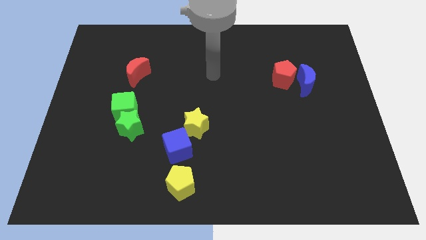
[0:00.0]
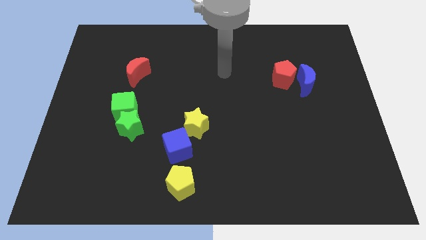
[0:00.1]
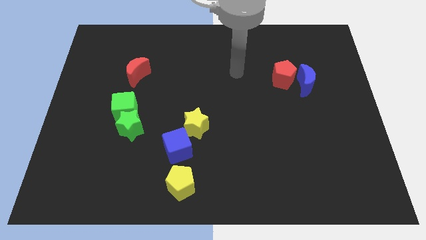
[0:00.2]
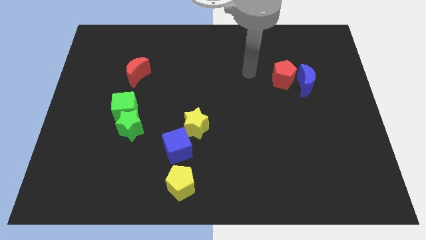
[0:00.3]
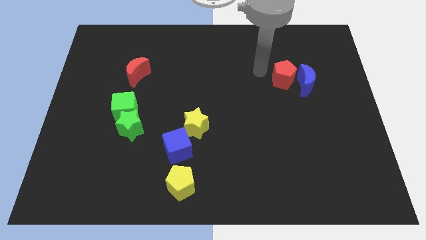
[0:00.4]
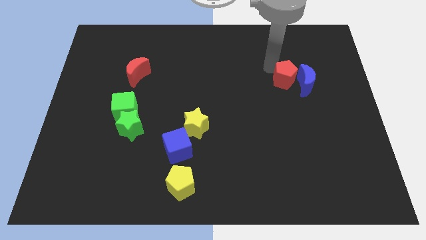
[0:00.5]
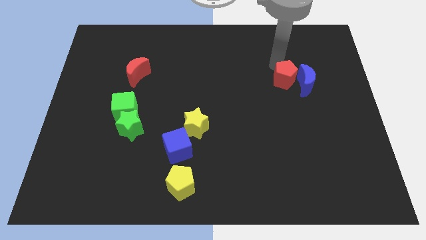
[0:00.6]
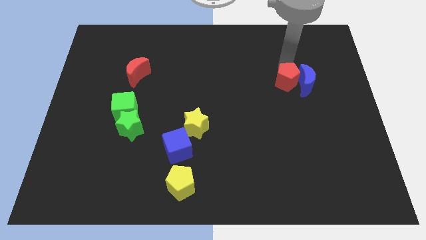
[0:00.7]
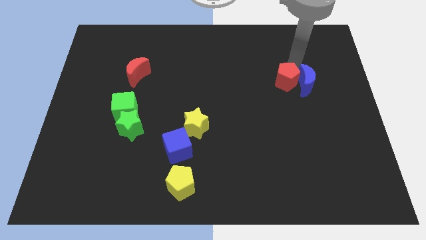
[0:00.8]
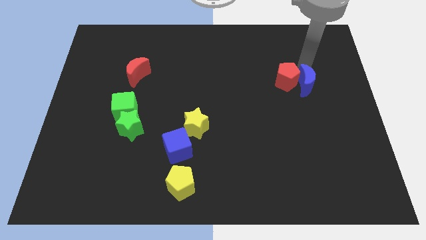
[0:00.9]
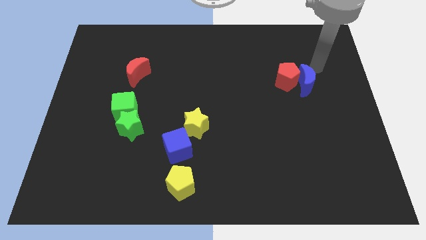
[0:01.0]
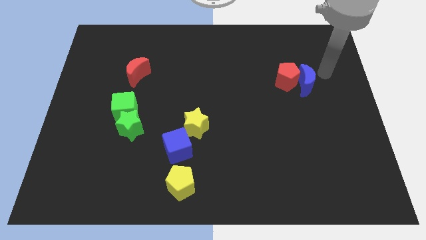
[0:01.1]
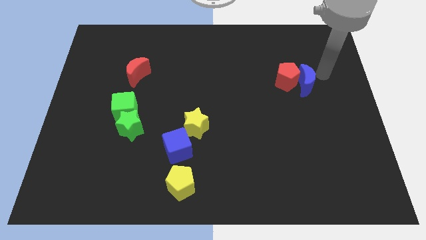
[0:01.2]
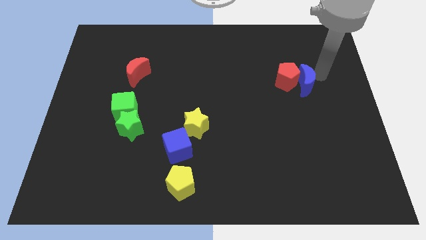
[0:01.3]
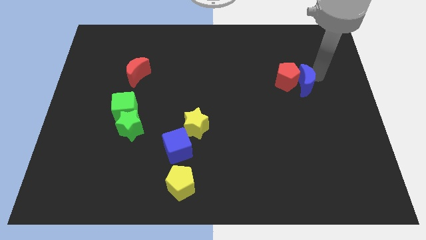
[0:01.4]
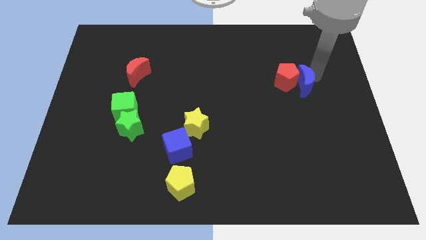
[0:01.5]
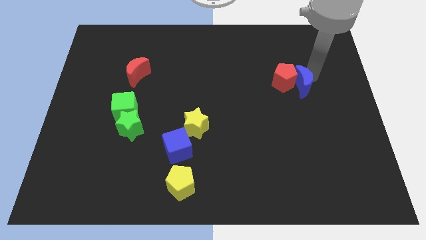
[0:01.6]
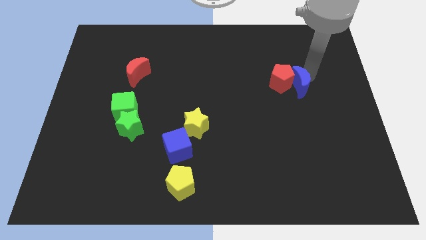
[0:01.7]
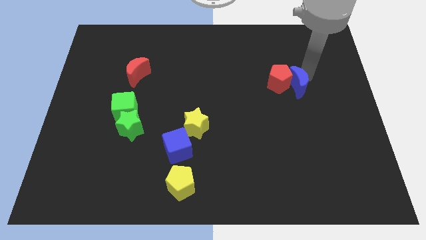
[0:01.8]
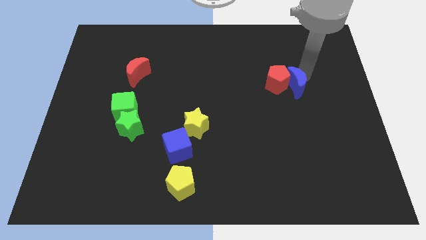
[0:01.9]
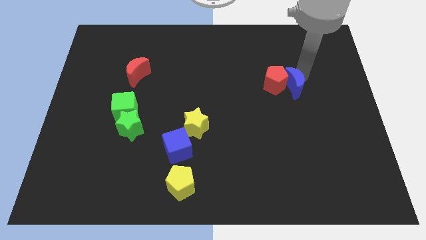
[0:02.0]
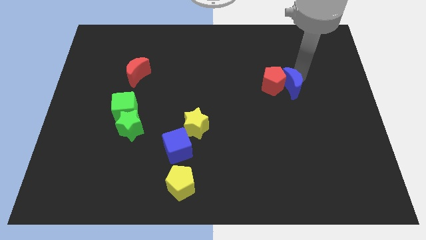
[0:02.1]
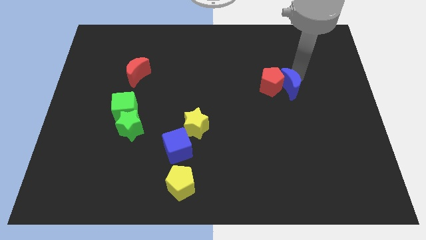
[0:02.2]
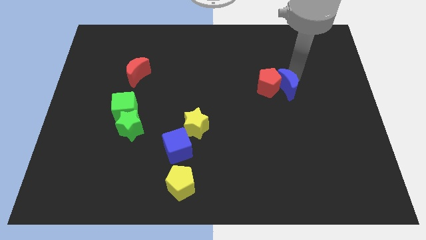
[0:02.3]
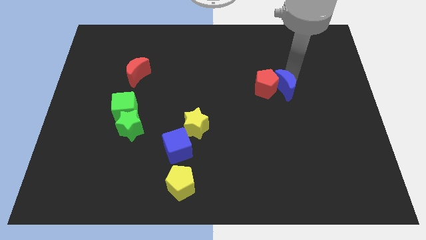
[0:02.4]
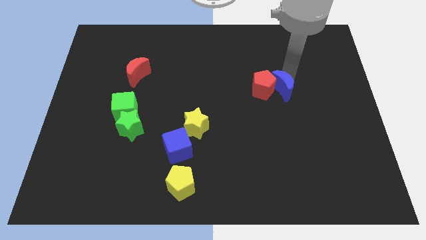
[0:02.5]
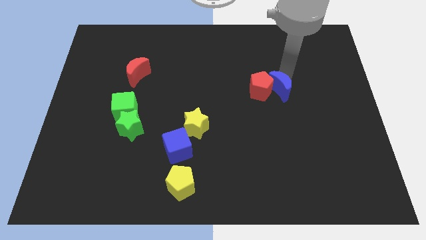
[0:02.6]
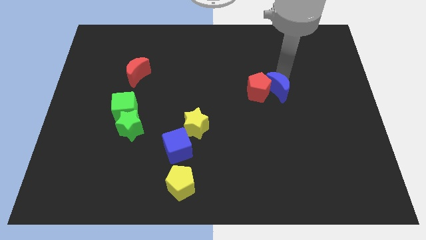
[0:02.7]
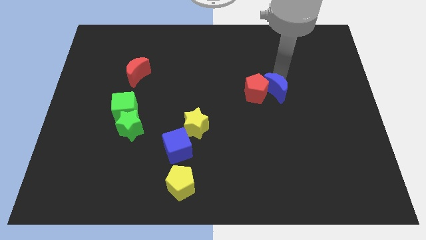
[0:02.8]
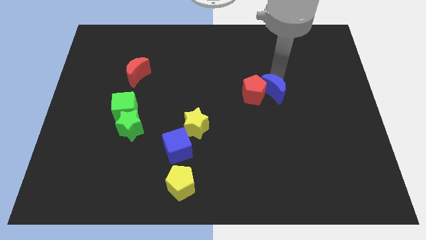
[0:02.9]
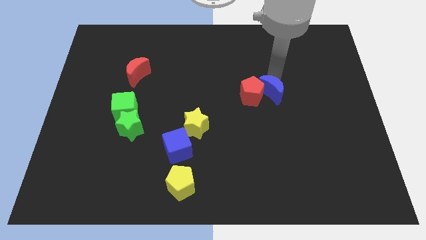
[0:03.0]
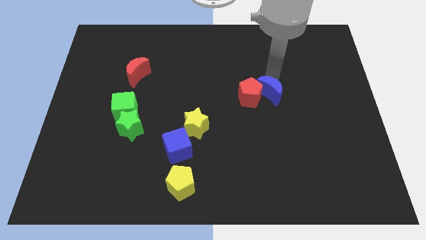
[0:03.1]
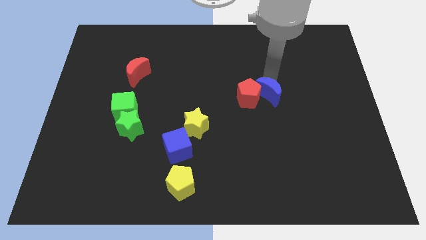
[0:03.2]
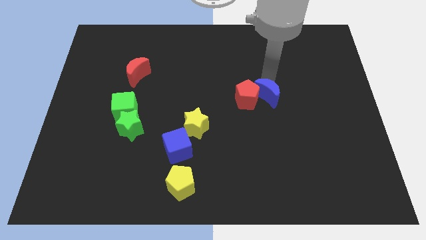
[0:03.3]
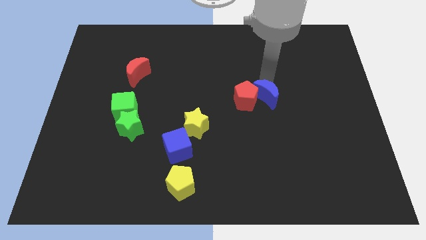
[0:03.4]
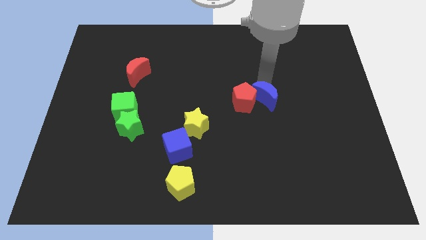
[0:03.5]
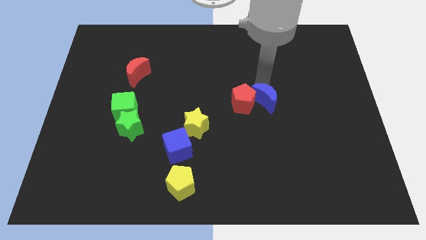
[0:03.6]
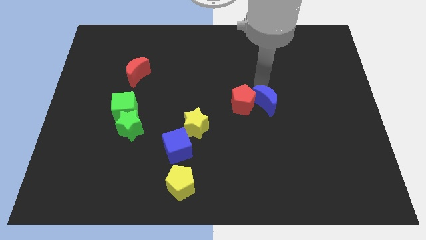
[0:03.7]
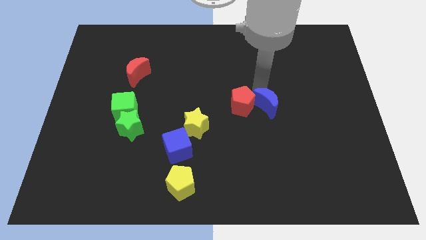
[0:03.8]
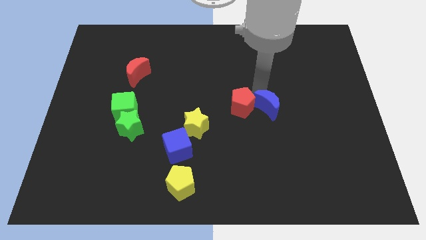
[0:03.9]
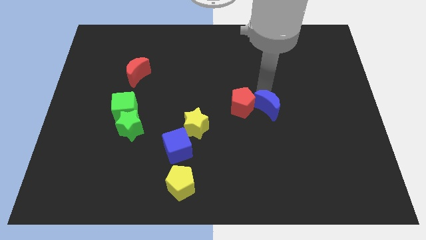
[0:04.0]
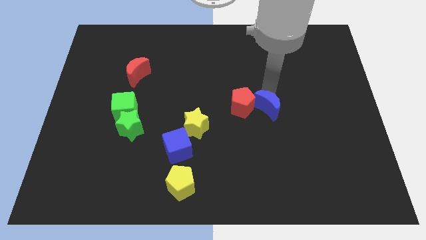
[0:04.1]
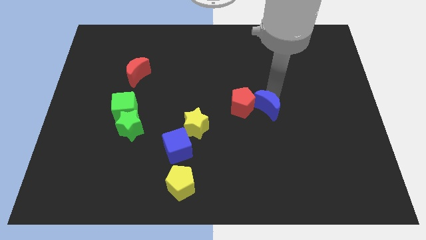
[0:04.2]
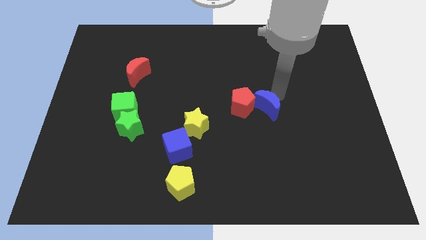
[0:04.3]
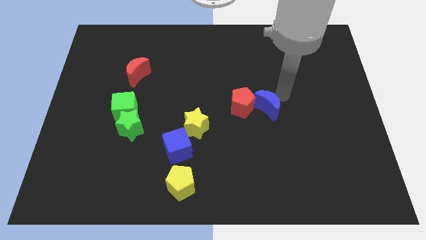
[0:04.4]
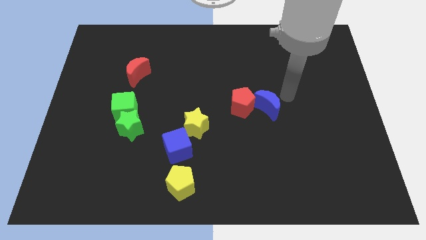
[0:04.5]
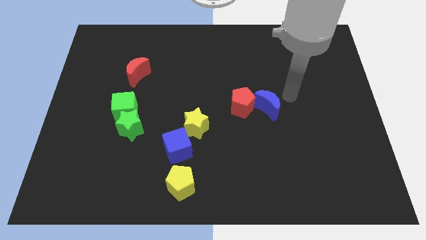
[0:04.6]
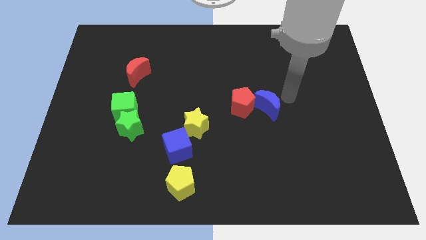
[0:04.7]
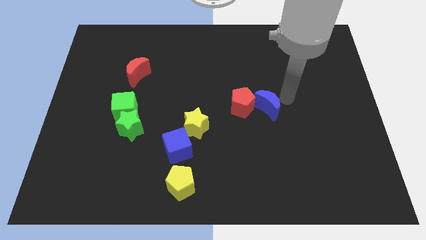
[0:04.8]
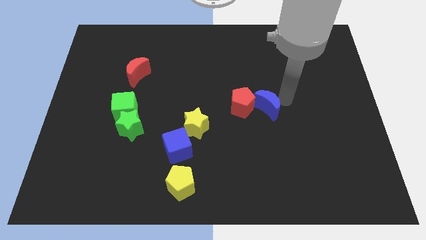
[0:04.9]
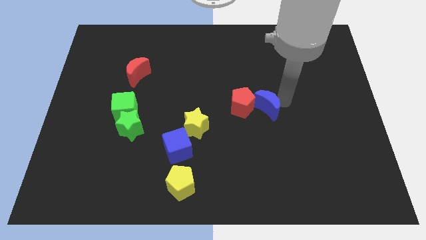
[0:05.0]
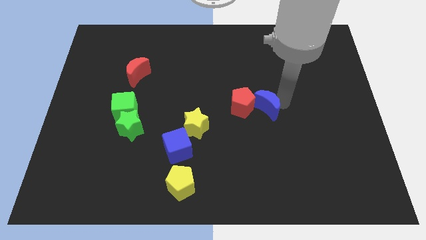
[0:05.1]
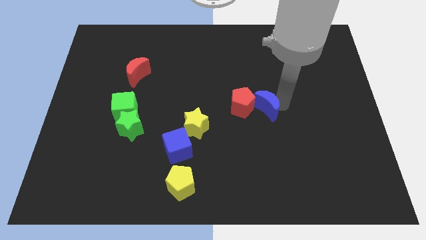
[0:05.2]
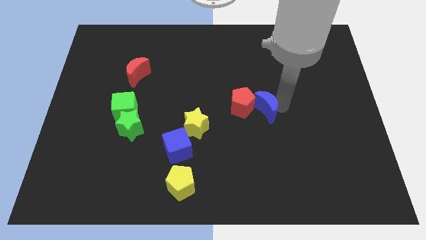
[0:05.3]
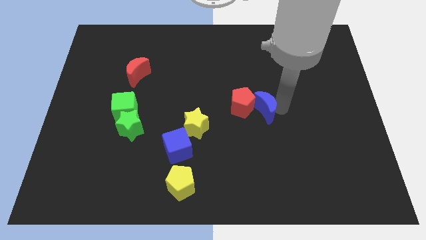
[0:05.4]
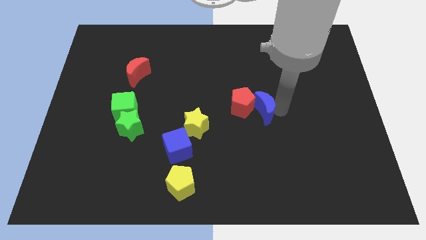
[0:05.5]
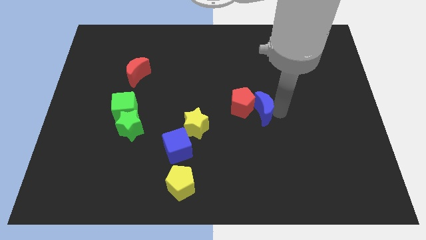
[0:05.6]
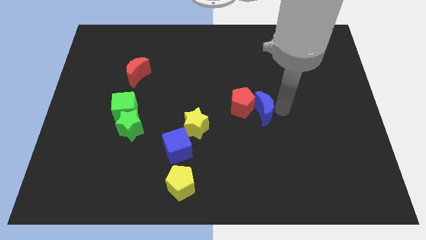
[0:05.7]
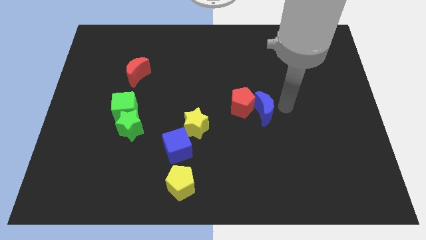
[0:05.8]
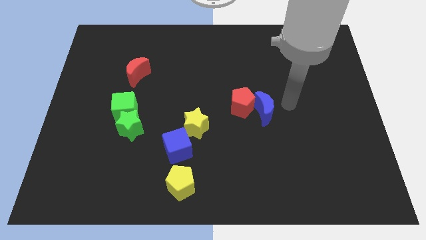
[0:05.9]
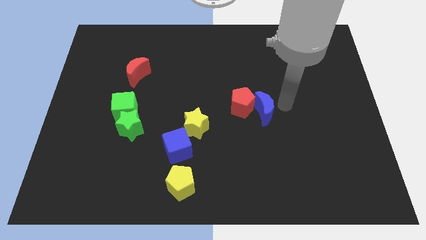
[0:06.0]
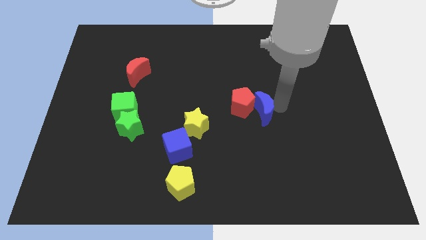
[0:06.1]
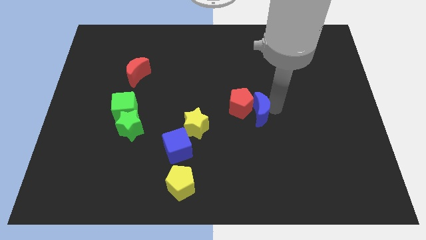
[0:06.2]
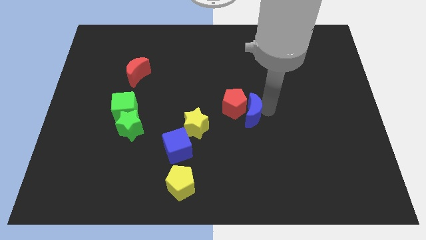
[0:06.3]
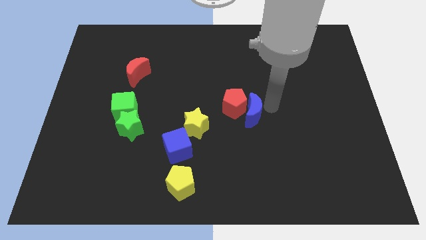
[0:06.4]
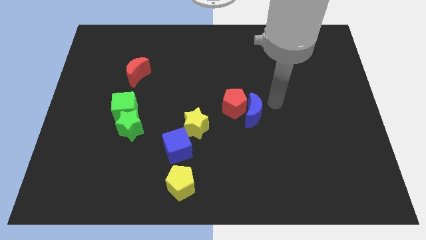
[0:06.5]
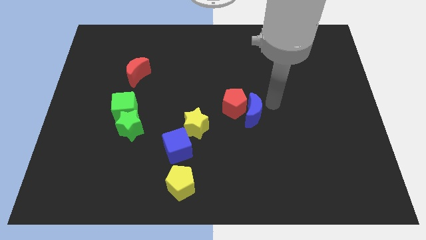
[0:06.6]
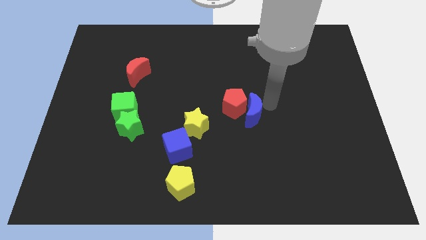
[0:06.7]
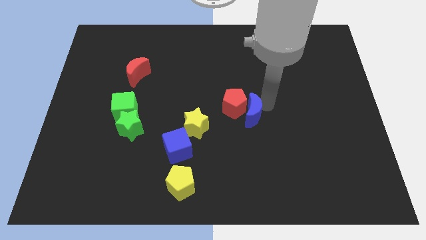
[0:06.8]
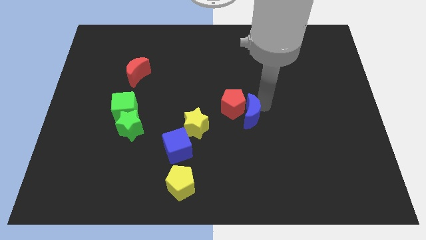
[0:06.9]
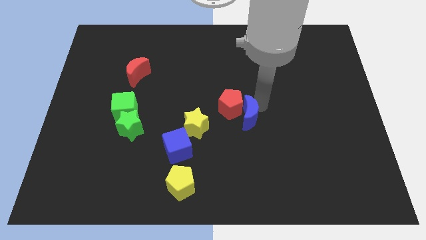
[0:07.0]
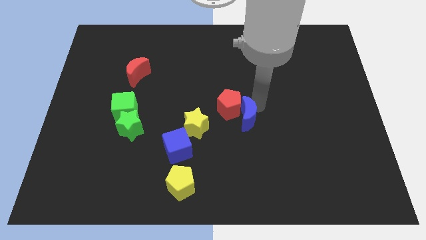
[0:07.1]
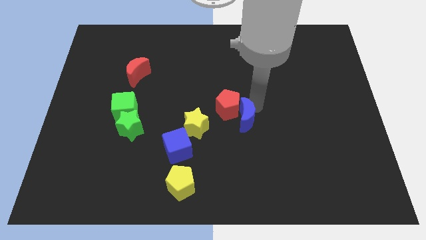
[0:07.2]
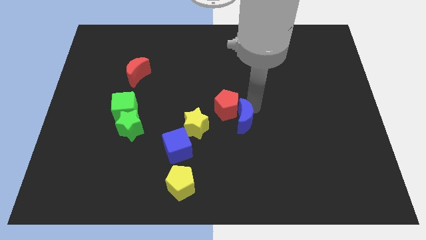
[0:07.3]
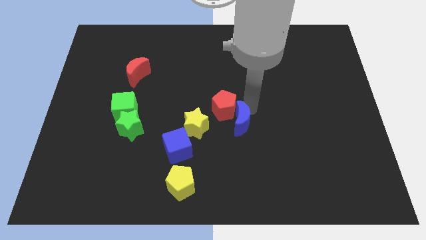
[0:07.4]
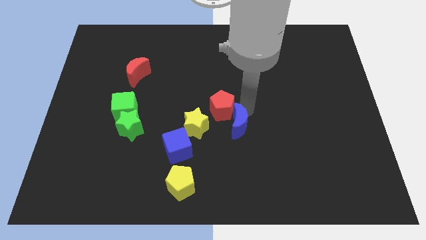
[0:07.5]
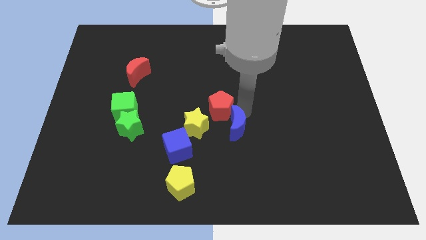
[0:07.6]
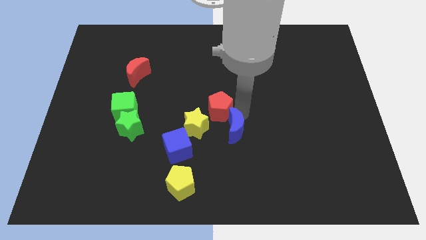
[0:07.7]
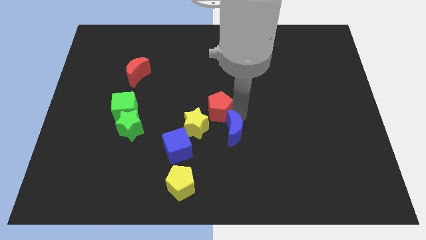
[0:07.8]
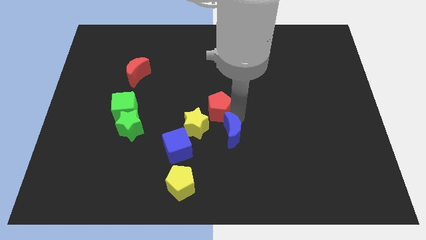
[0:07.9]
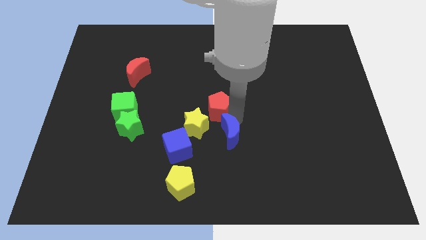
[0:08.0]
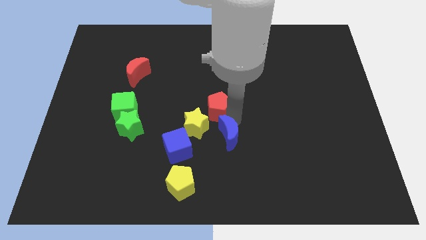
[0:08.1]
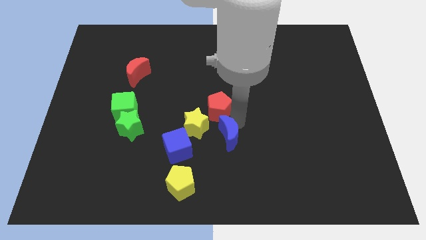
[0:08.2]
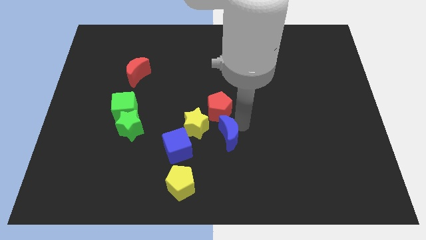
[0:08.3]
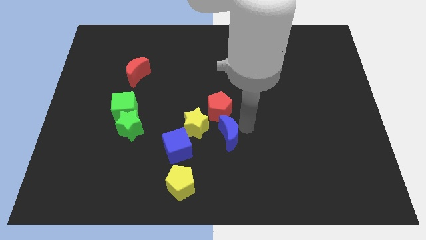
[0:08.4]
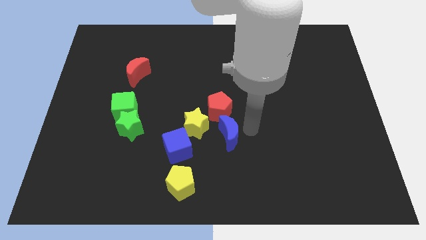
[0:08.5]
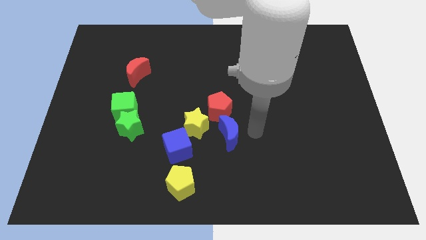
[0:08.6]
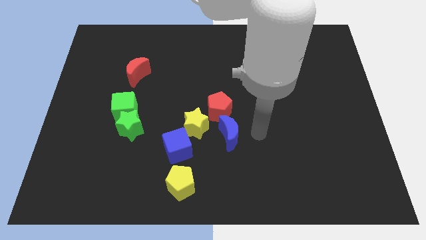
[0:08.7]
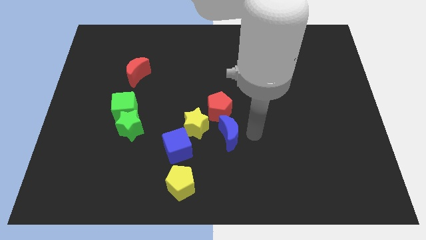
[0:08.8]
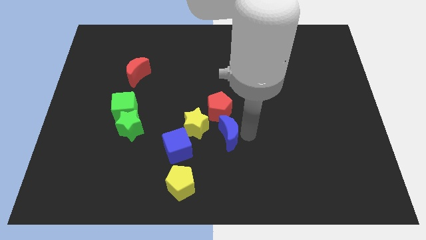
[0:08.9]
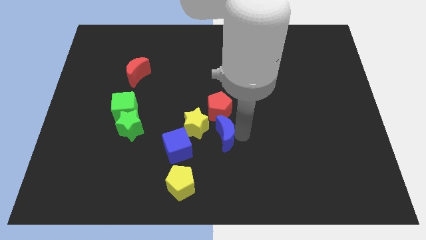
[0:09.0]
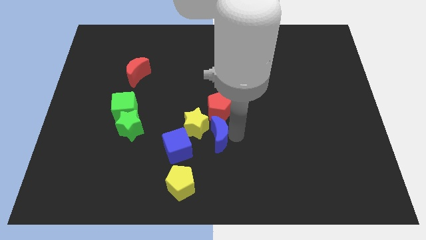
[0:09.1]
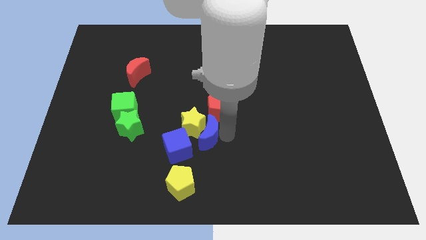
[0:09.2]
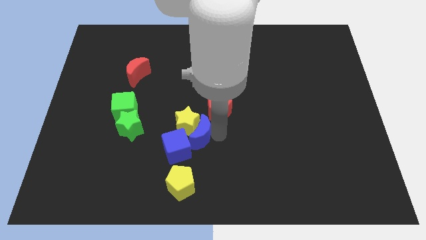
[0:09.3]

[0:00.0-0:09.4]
move the blue moon to the blue cube
